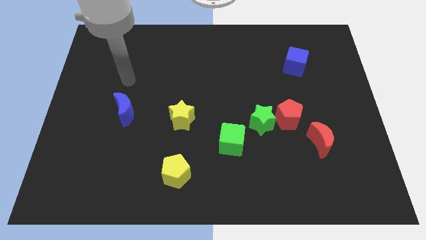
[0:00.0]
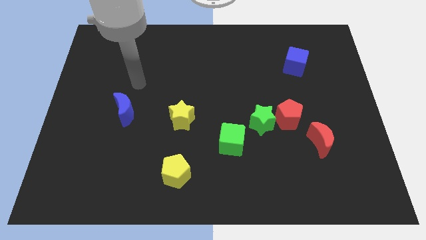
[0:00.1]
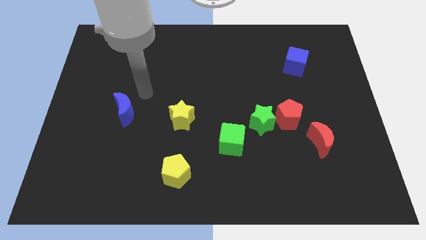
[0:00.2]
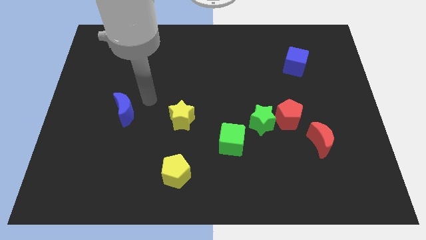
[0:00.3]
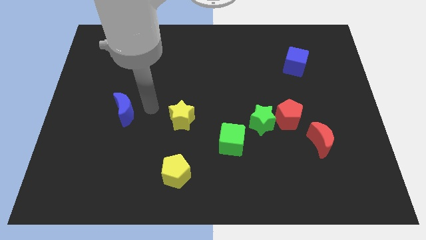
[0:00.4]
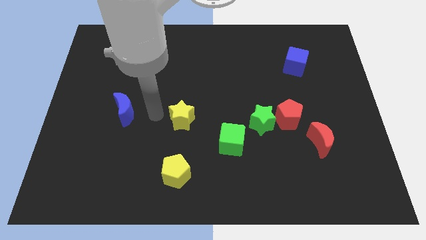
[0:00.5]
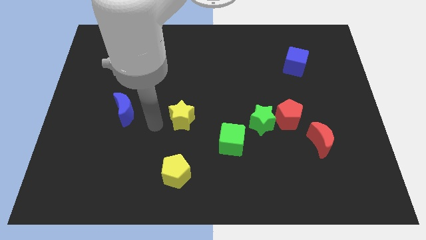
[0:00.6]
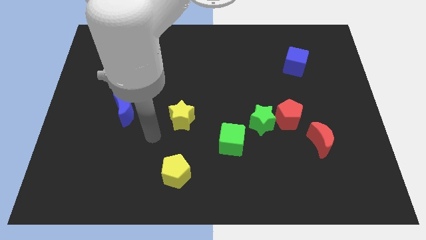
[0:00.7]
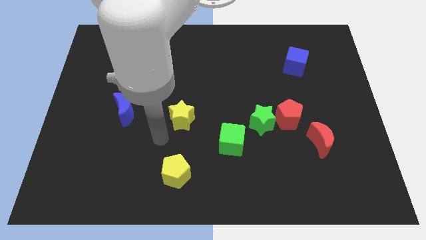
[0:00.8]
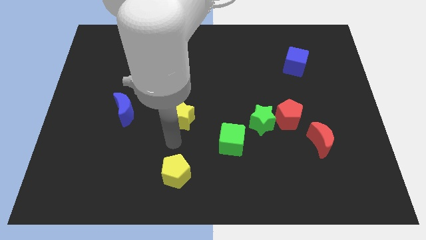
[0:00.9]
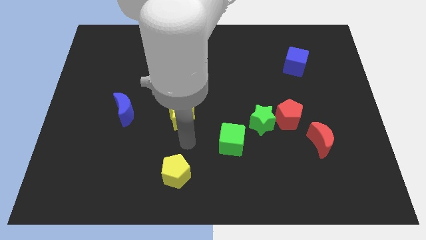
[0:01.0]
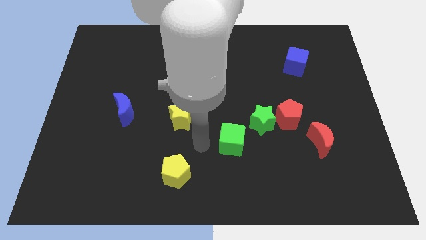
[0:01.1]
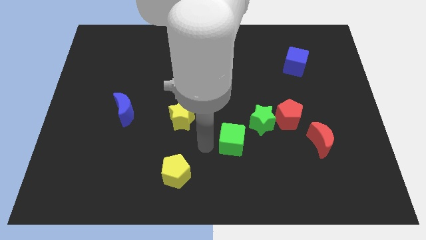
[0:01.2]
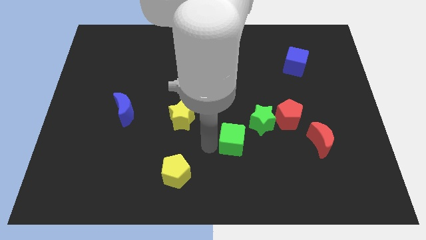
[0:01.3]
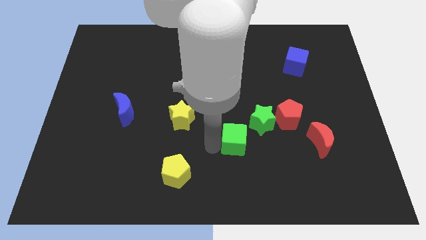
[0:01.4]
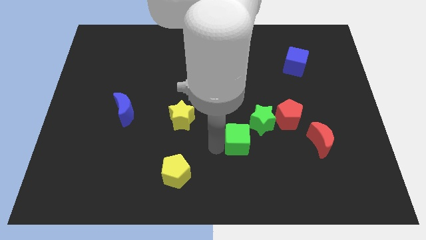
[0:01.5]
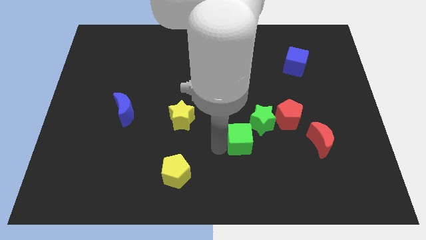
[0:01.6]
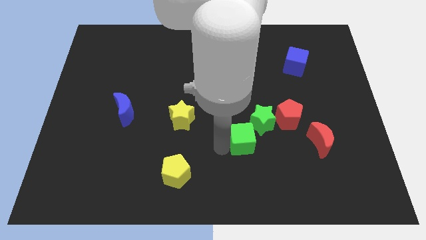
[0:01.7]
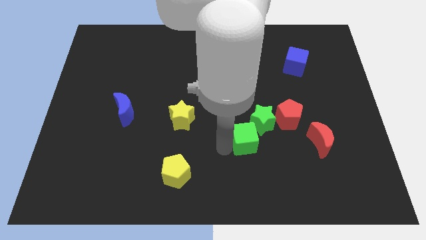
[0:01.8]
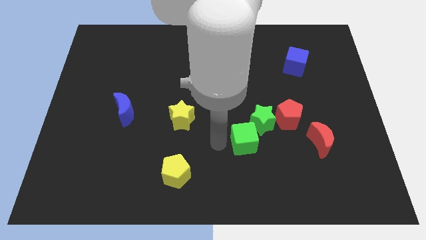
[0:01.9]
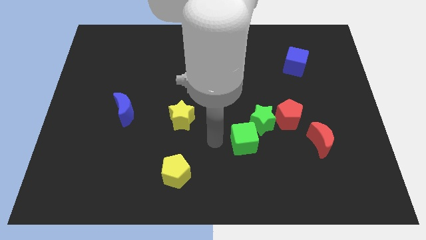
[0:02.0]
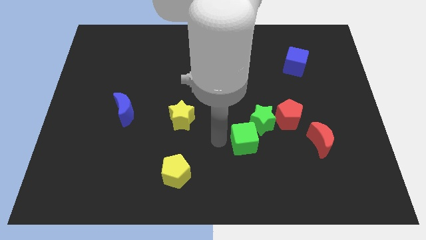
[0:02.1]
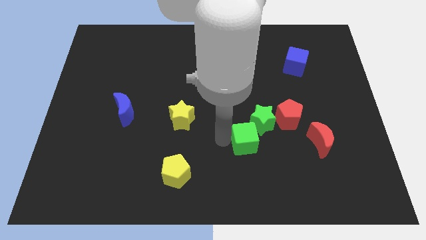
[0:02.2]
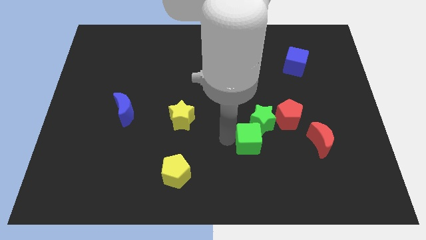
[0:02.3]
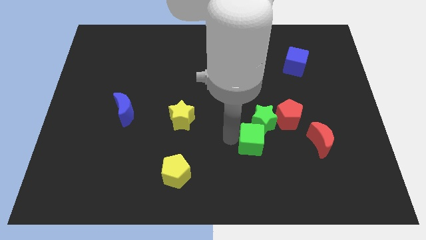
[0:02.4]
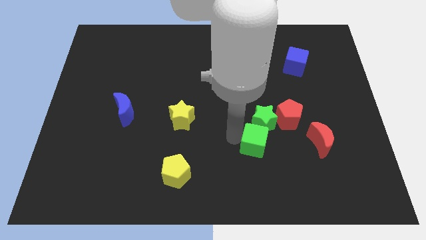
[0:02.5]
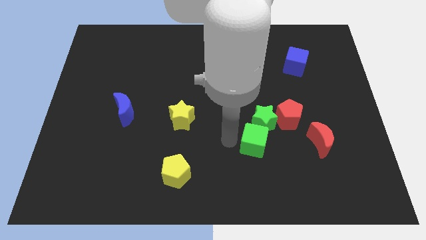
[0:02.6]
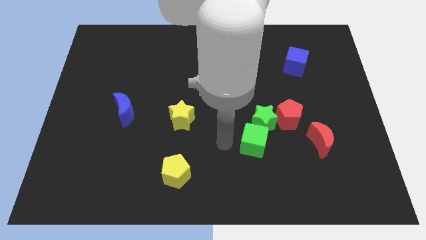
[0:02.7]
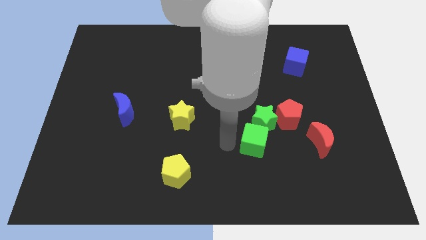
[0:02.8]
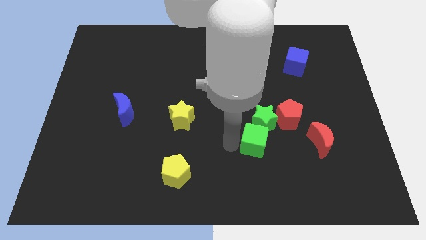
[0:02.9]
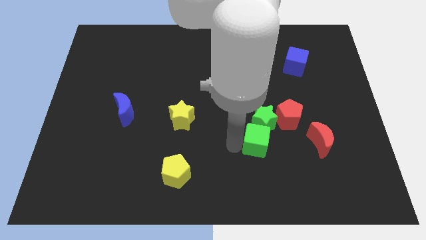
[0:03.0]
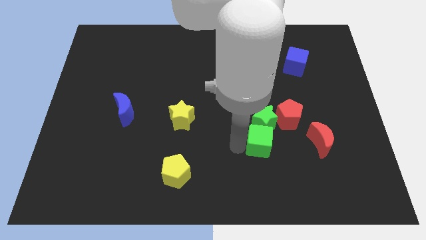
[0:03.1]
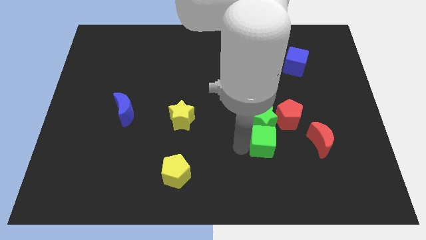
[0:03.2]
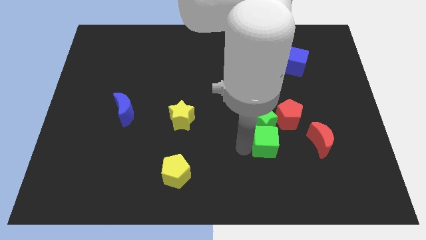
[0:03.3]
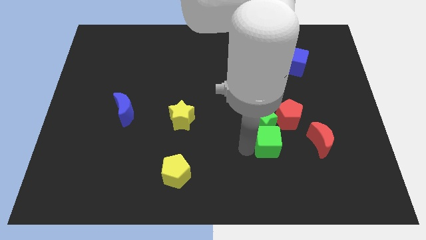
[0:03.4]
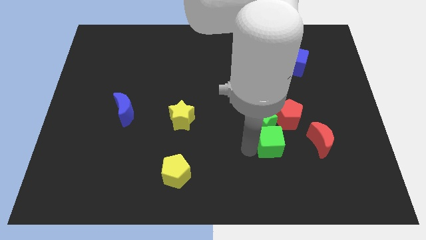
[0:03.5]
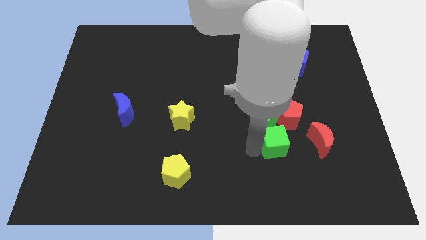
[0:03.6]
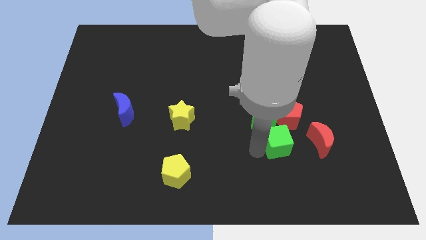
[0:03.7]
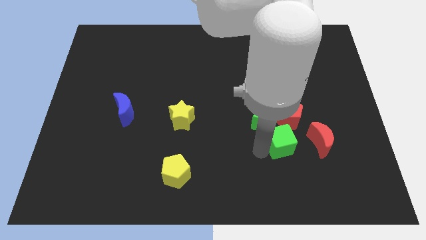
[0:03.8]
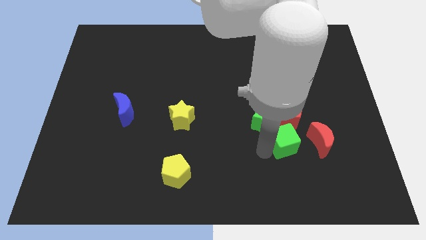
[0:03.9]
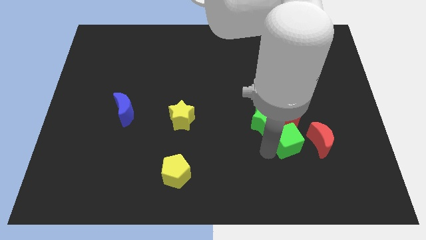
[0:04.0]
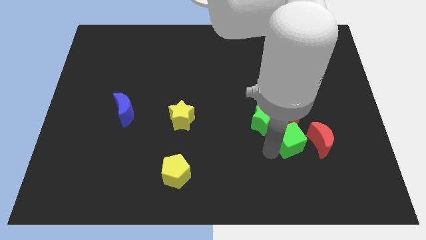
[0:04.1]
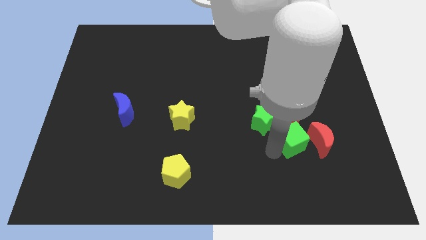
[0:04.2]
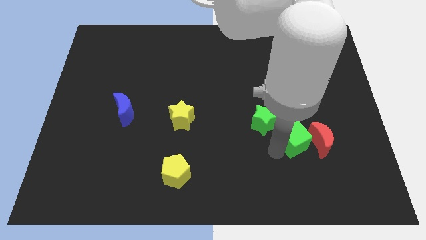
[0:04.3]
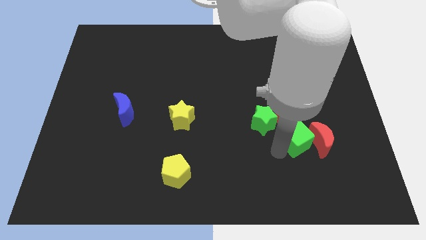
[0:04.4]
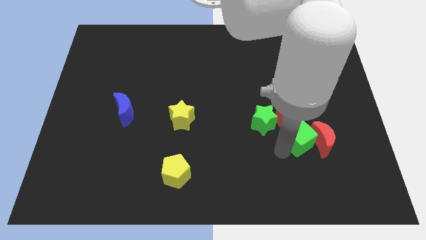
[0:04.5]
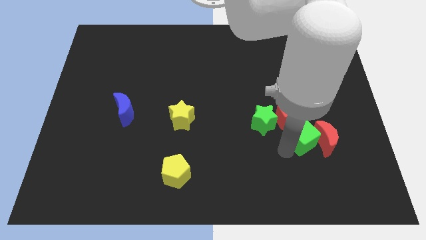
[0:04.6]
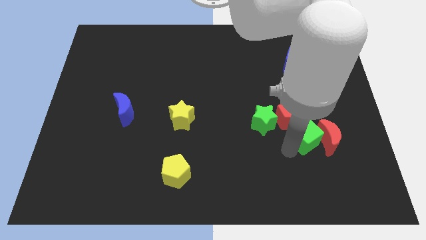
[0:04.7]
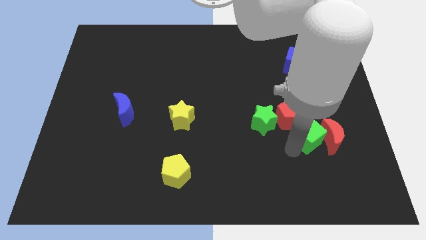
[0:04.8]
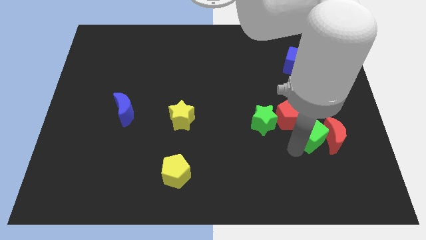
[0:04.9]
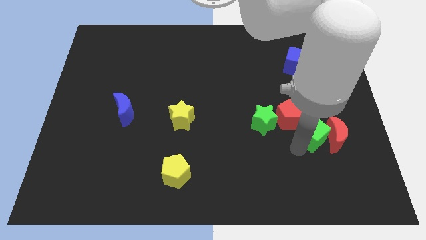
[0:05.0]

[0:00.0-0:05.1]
slide the green cube to the right of the red pentagon

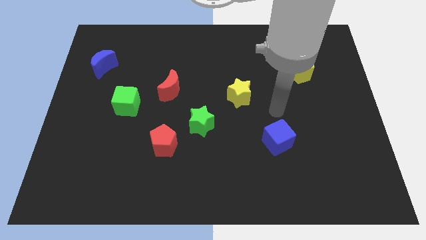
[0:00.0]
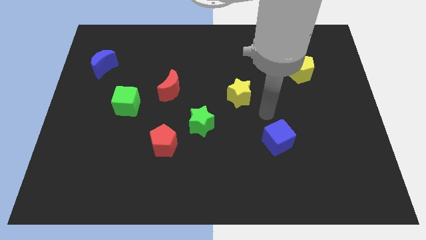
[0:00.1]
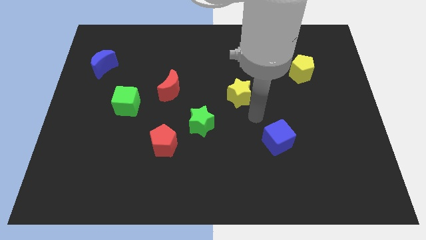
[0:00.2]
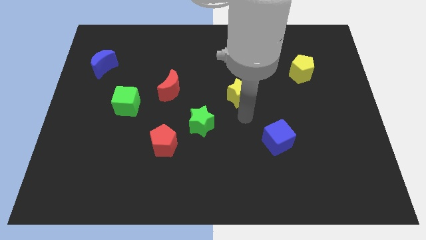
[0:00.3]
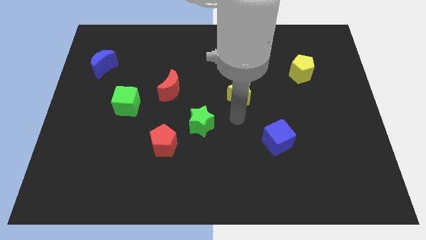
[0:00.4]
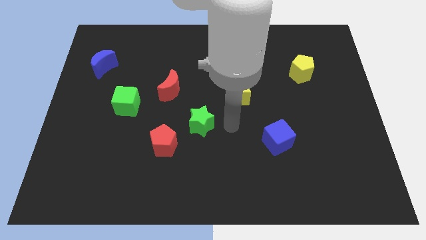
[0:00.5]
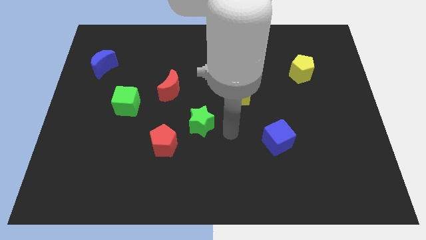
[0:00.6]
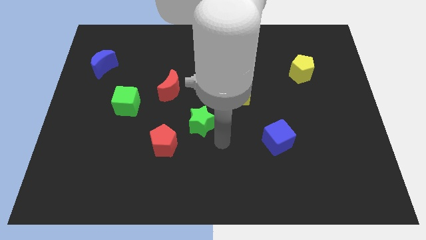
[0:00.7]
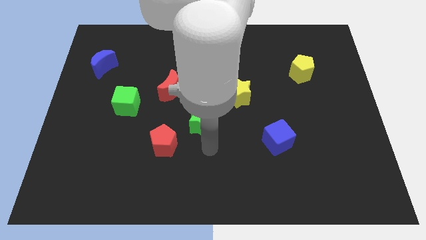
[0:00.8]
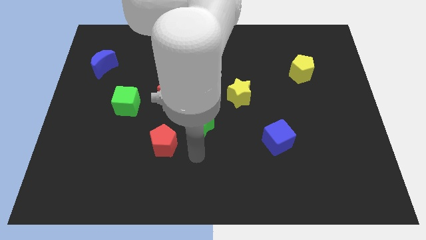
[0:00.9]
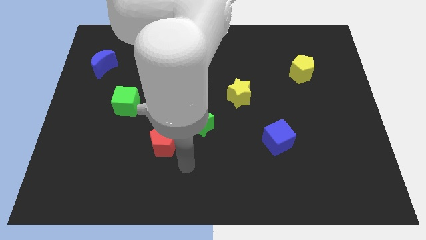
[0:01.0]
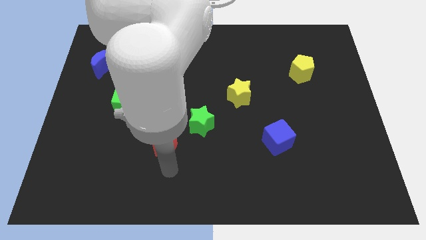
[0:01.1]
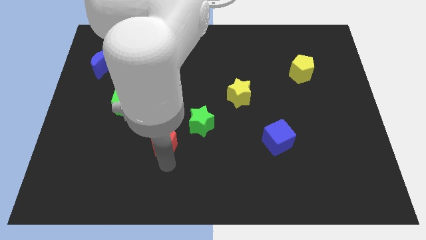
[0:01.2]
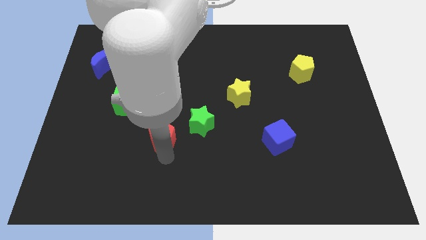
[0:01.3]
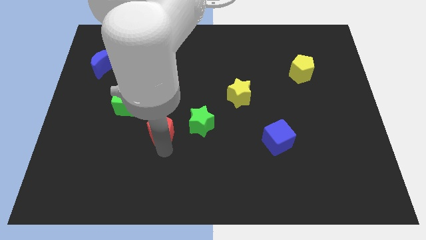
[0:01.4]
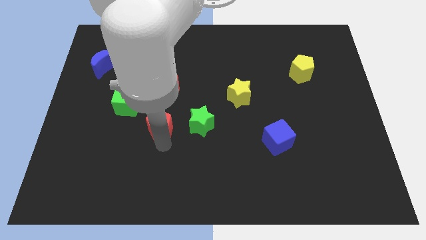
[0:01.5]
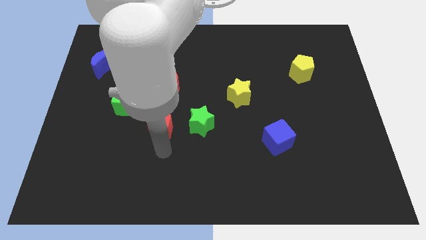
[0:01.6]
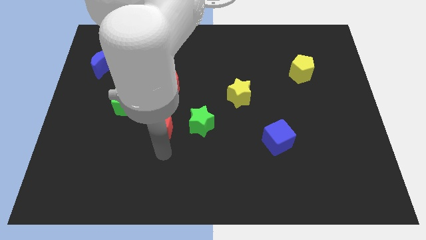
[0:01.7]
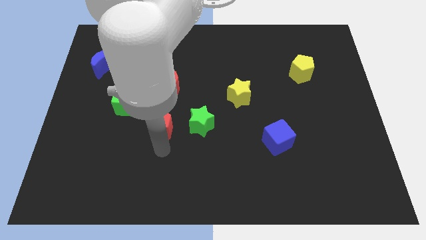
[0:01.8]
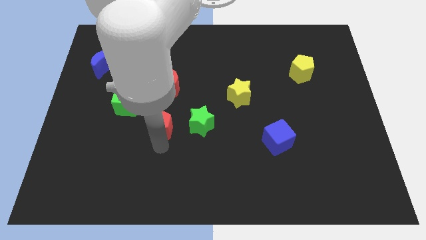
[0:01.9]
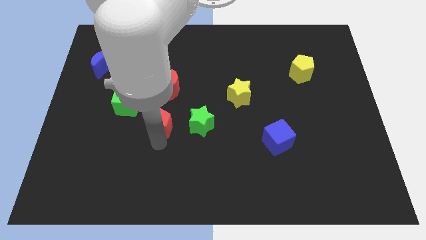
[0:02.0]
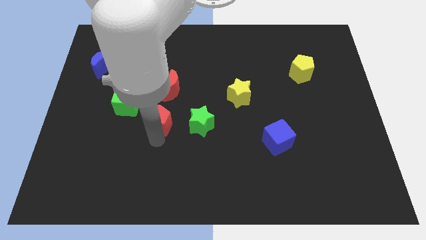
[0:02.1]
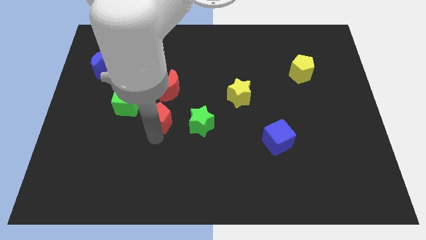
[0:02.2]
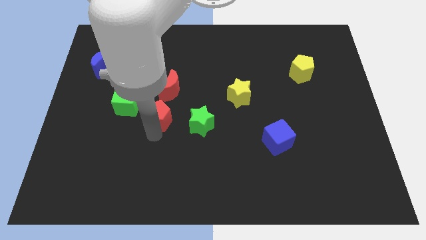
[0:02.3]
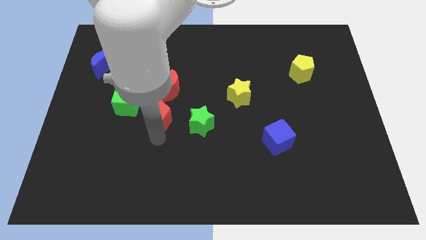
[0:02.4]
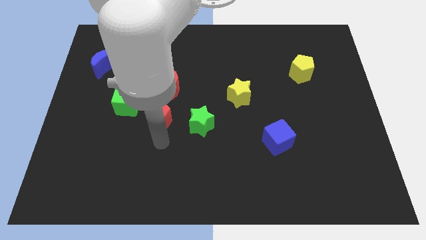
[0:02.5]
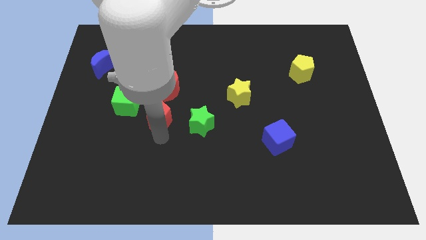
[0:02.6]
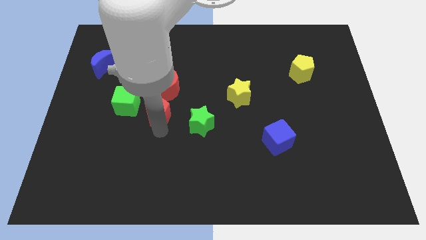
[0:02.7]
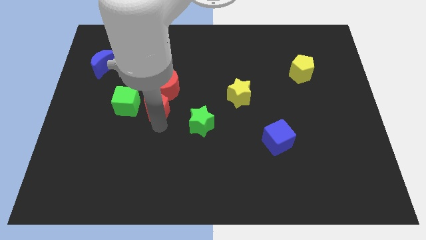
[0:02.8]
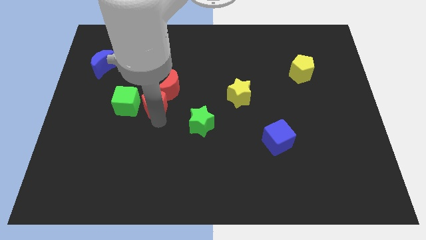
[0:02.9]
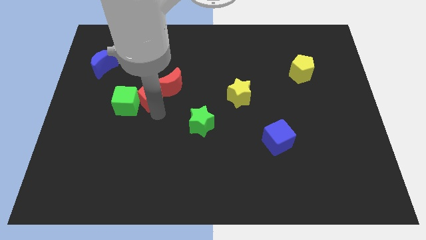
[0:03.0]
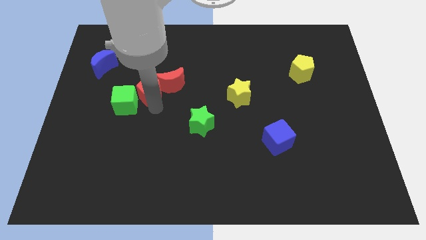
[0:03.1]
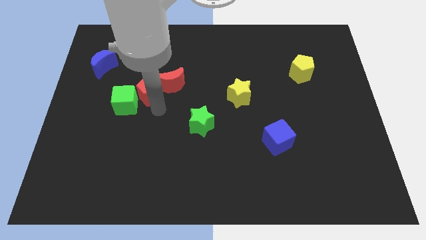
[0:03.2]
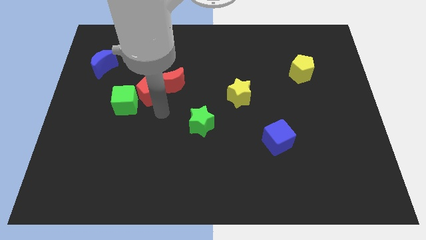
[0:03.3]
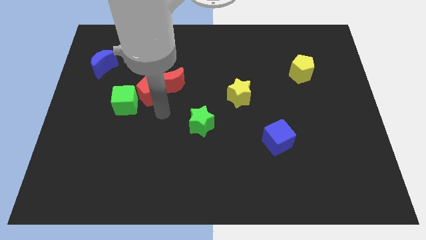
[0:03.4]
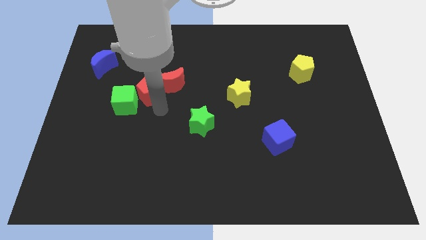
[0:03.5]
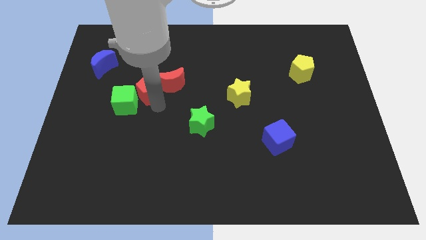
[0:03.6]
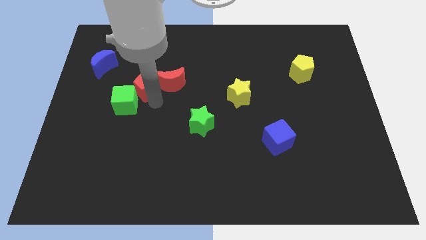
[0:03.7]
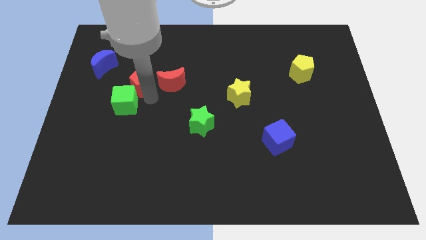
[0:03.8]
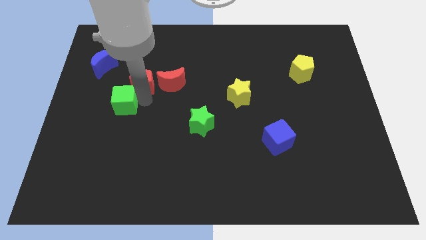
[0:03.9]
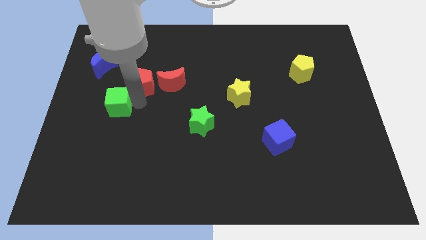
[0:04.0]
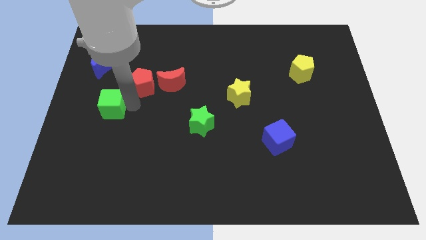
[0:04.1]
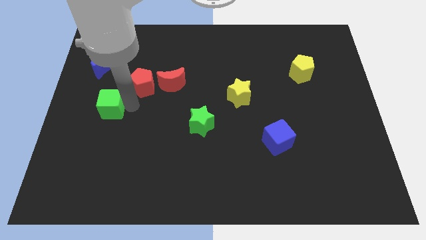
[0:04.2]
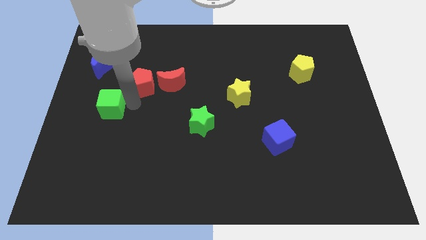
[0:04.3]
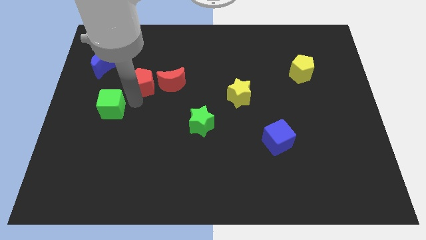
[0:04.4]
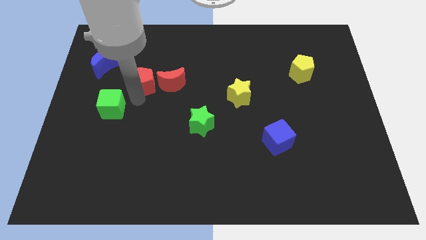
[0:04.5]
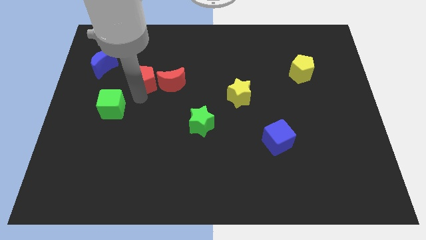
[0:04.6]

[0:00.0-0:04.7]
push the red pentagon to the top left of the red moon
